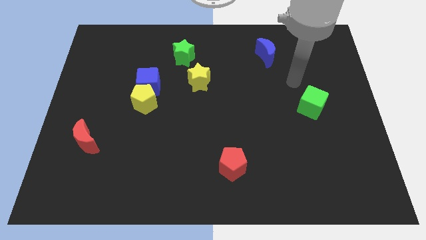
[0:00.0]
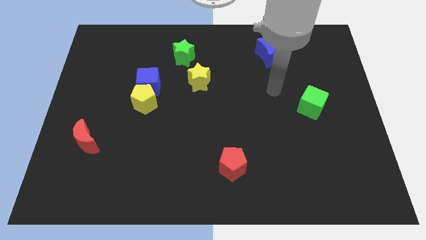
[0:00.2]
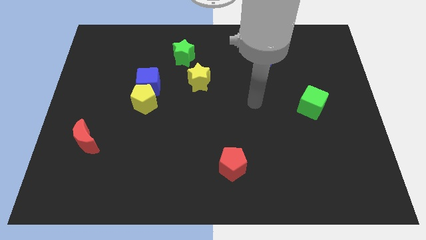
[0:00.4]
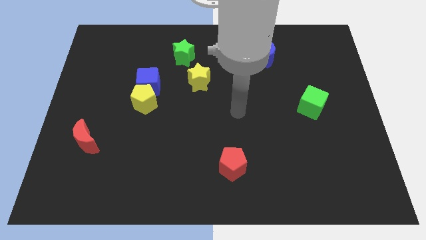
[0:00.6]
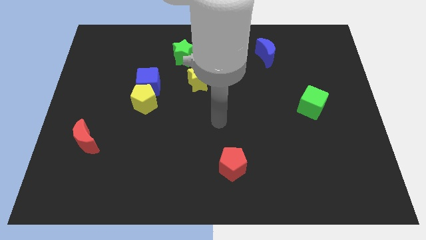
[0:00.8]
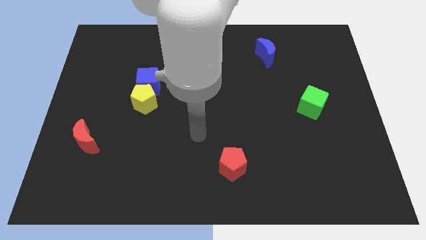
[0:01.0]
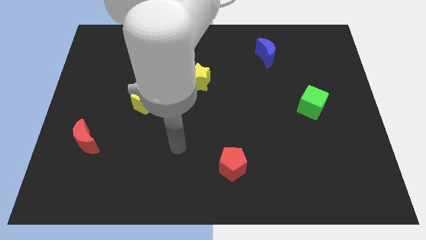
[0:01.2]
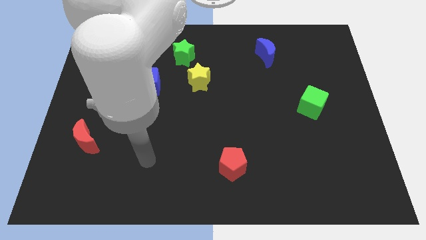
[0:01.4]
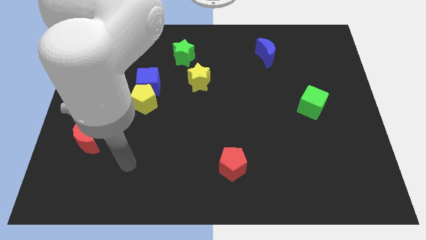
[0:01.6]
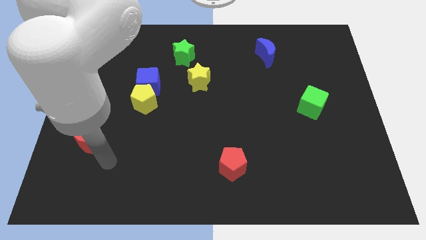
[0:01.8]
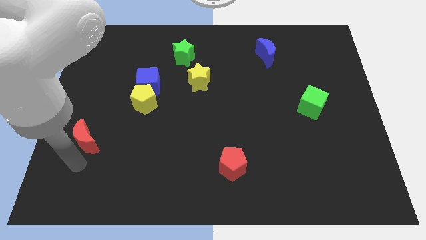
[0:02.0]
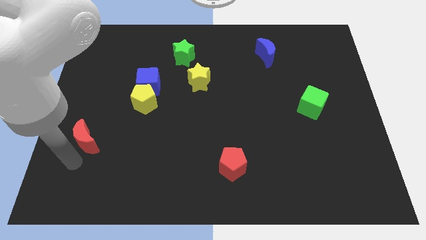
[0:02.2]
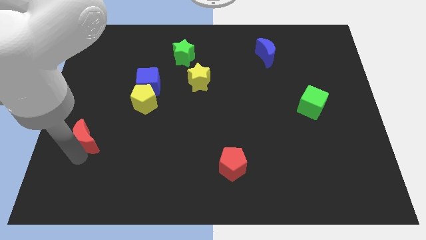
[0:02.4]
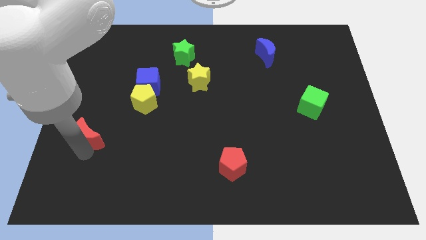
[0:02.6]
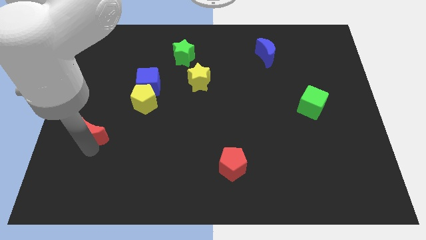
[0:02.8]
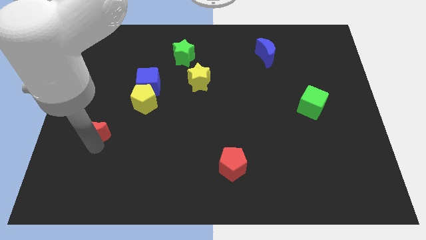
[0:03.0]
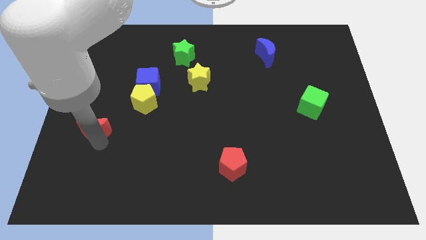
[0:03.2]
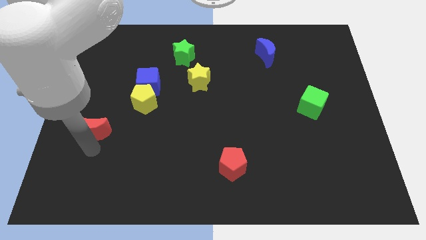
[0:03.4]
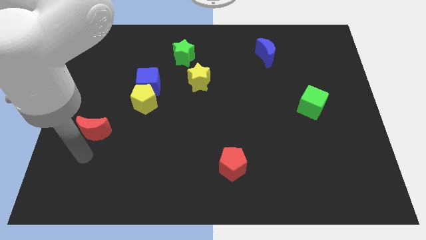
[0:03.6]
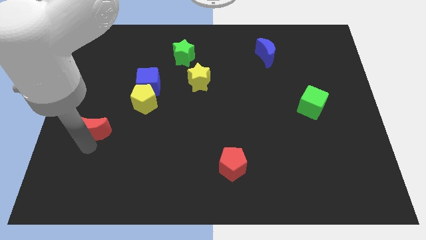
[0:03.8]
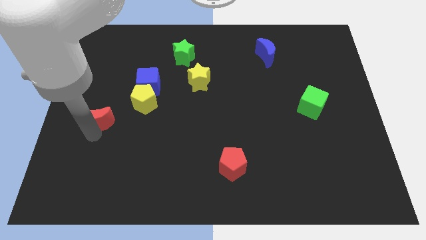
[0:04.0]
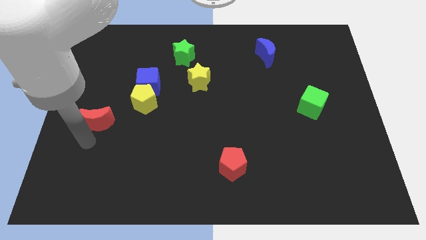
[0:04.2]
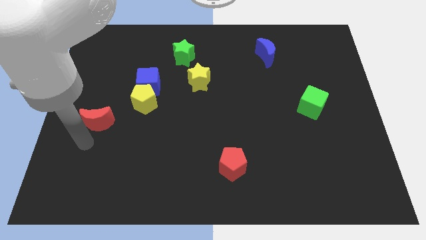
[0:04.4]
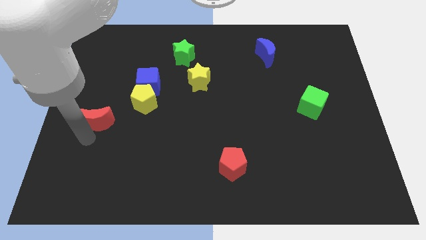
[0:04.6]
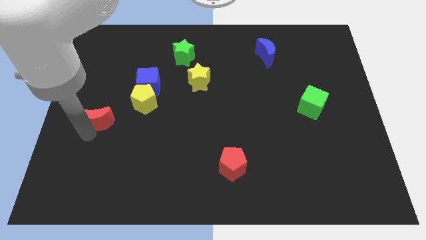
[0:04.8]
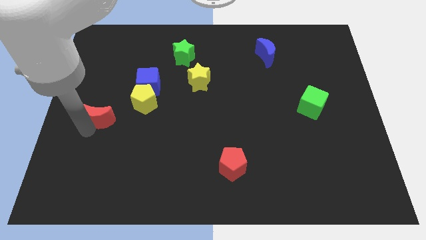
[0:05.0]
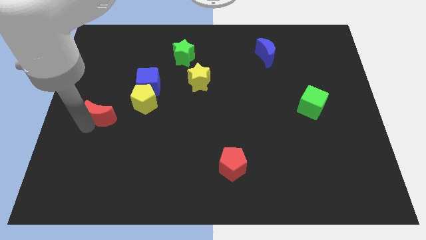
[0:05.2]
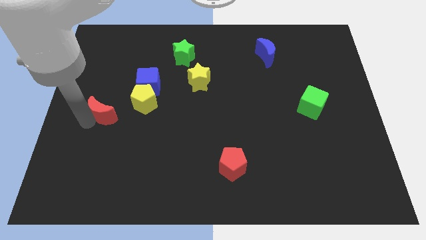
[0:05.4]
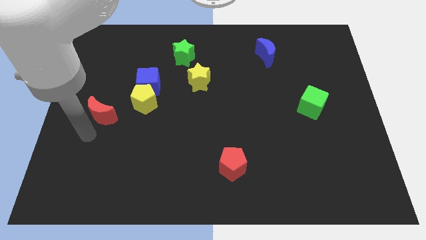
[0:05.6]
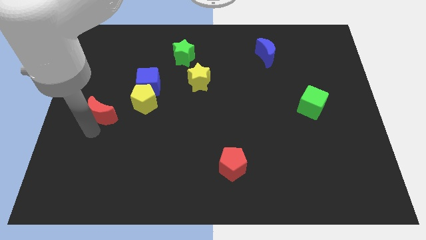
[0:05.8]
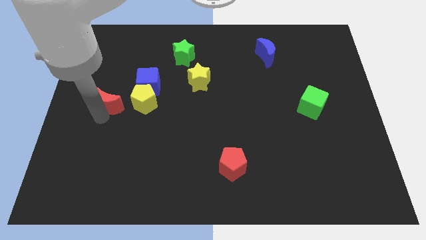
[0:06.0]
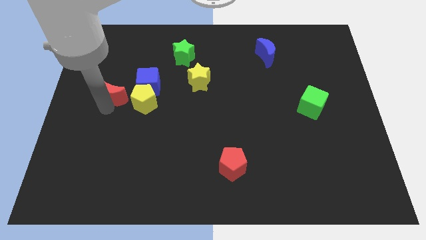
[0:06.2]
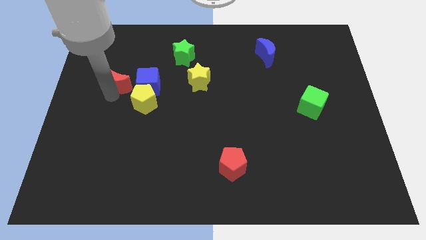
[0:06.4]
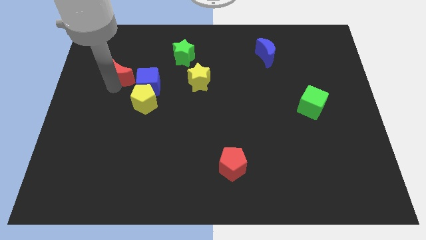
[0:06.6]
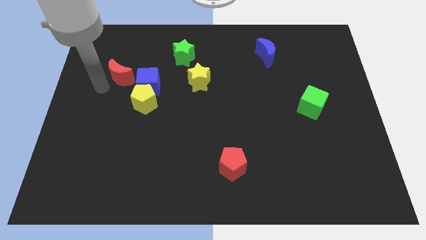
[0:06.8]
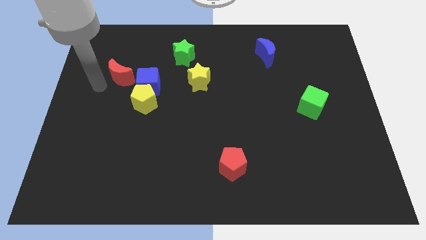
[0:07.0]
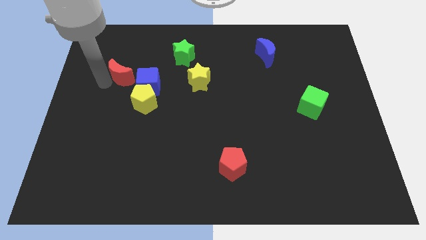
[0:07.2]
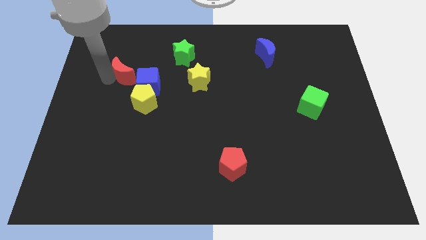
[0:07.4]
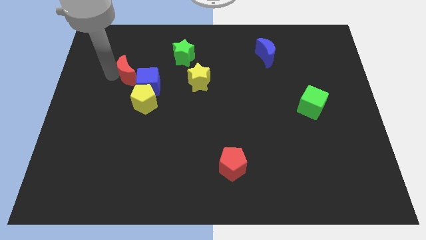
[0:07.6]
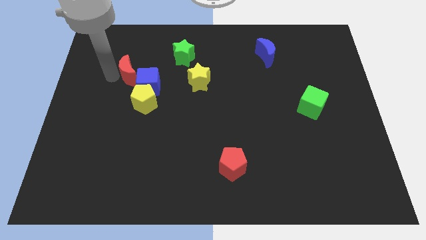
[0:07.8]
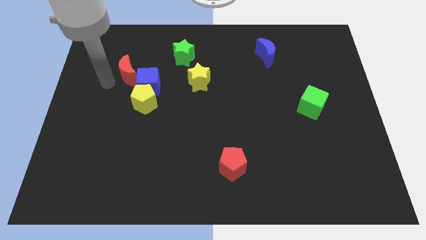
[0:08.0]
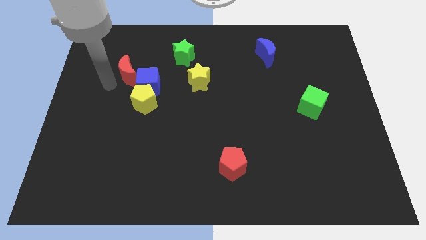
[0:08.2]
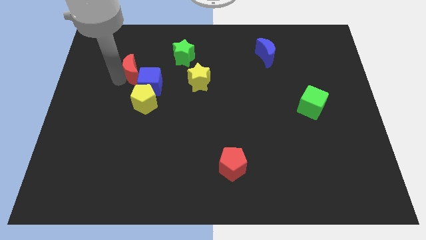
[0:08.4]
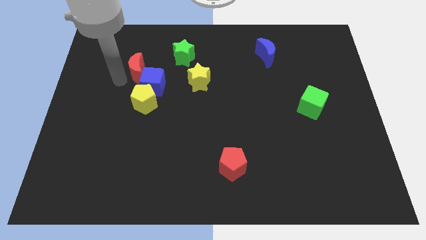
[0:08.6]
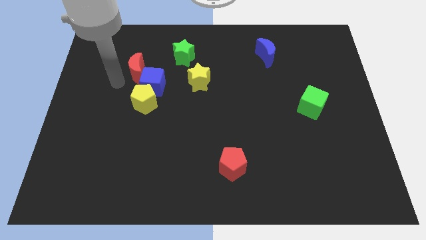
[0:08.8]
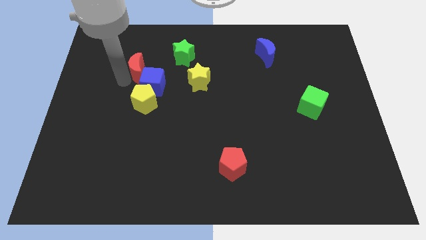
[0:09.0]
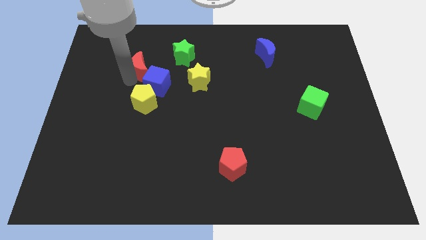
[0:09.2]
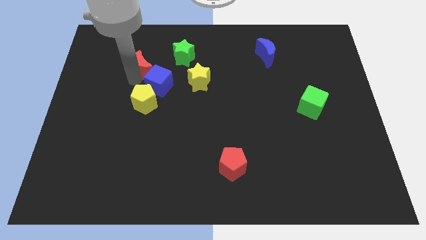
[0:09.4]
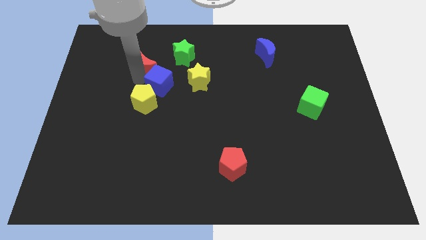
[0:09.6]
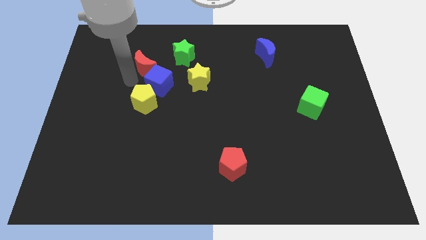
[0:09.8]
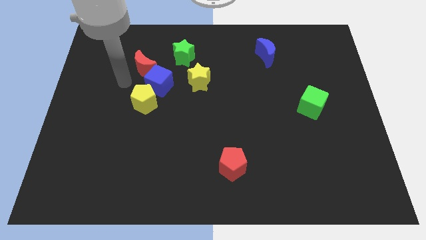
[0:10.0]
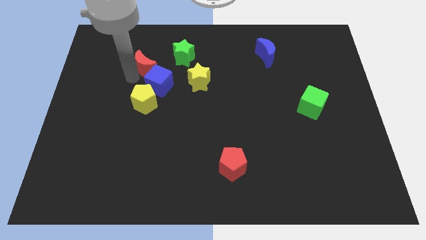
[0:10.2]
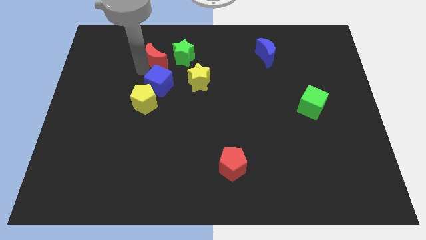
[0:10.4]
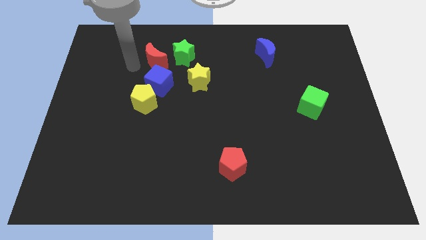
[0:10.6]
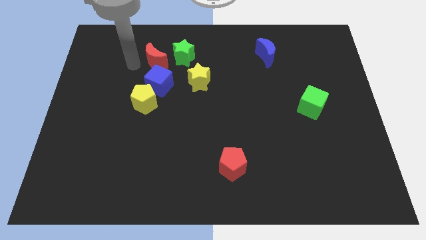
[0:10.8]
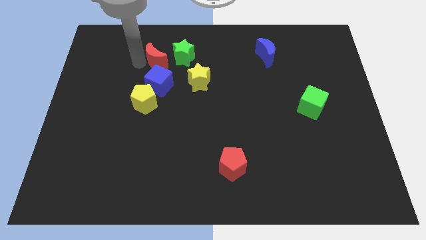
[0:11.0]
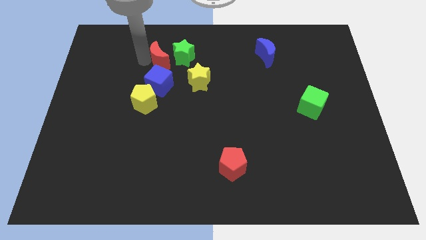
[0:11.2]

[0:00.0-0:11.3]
slide the red moon close to the green star

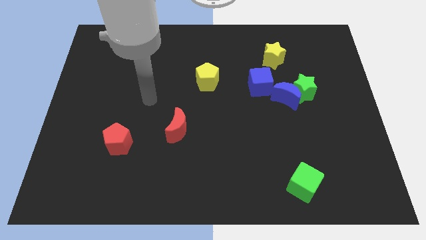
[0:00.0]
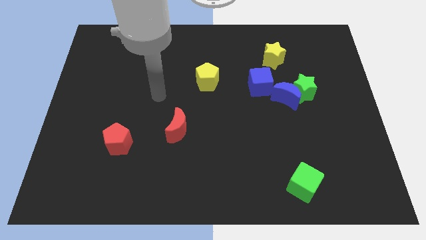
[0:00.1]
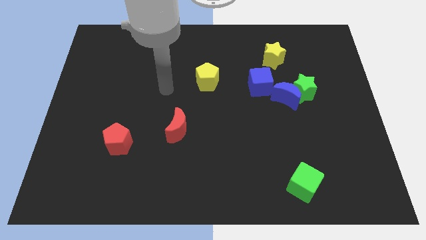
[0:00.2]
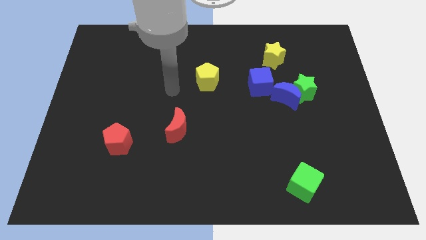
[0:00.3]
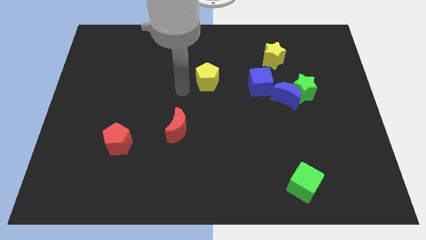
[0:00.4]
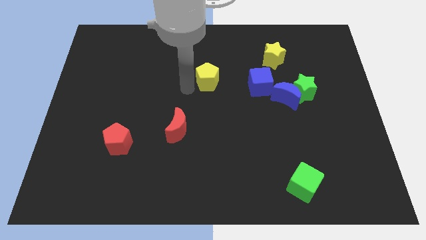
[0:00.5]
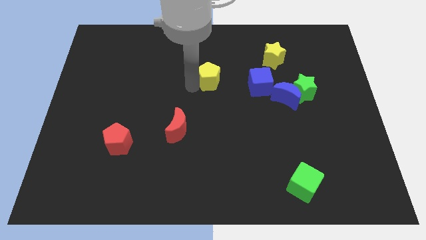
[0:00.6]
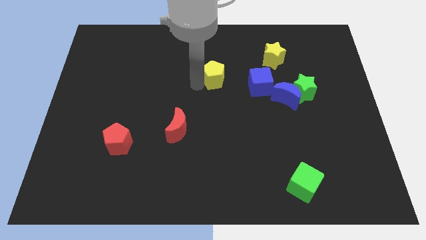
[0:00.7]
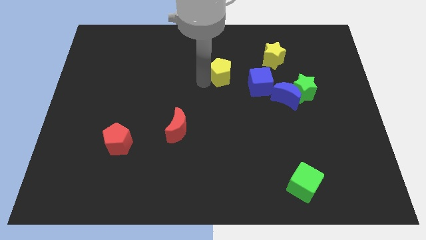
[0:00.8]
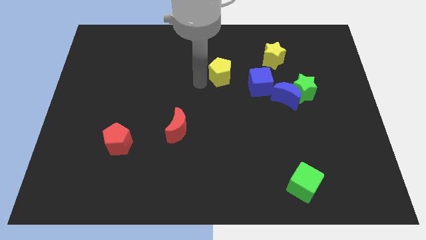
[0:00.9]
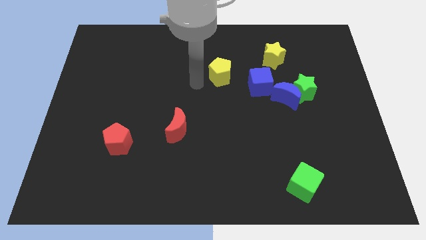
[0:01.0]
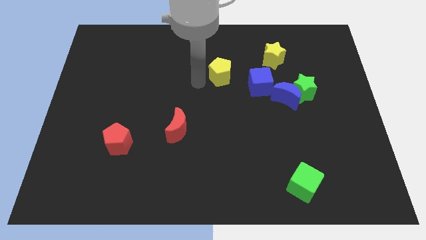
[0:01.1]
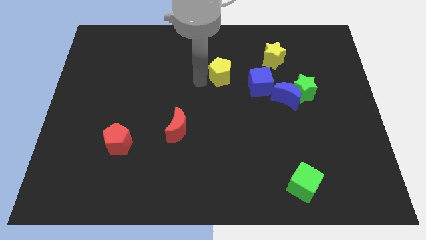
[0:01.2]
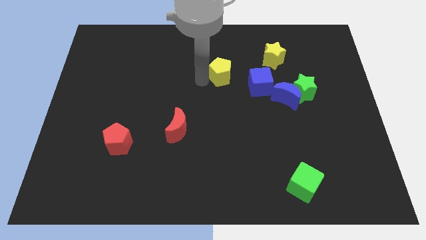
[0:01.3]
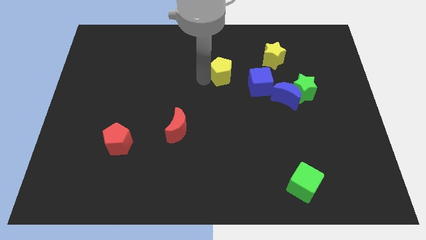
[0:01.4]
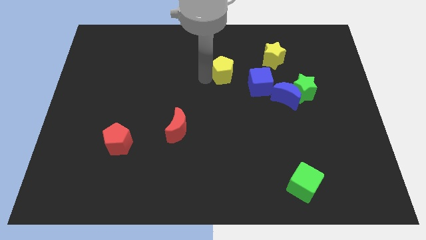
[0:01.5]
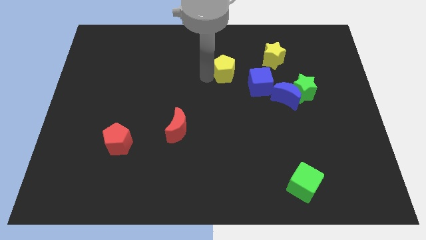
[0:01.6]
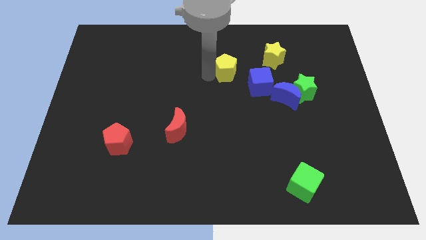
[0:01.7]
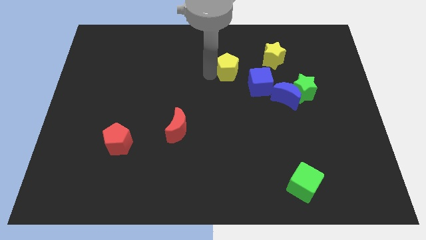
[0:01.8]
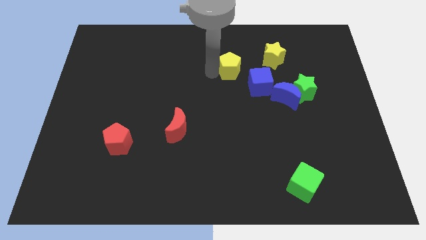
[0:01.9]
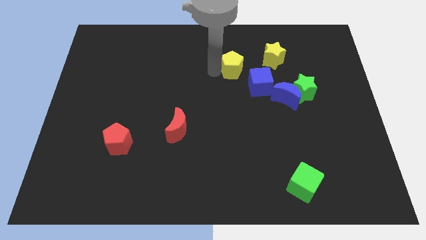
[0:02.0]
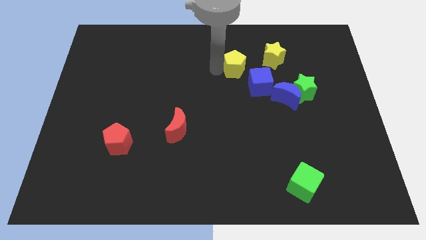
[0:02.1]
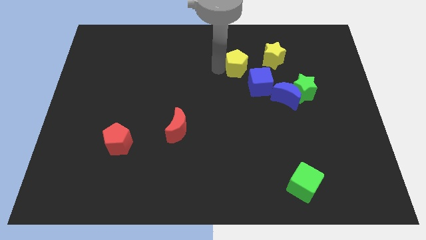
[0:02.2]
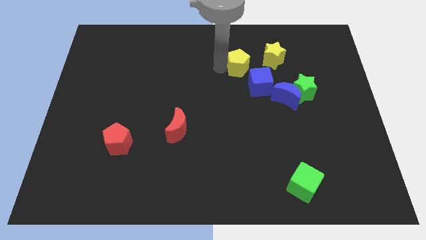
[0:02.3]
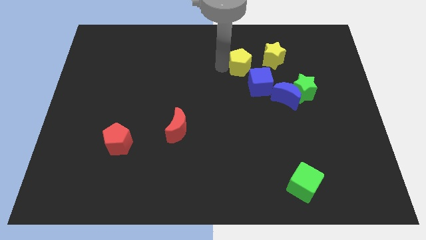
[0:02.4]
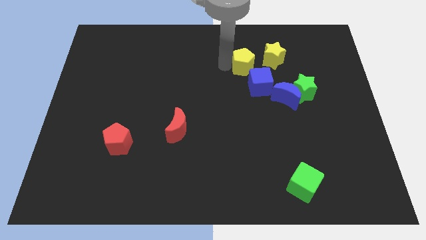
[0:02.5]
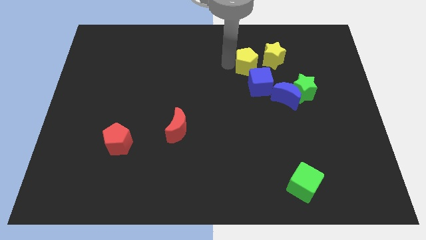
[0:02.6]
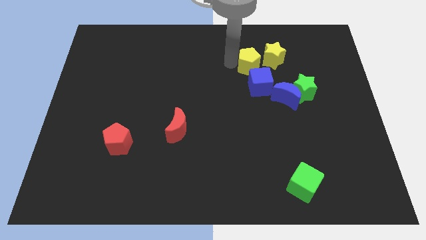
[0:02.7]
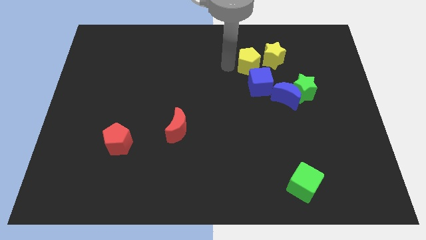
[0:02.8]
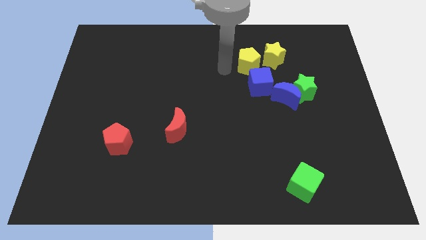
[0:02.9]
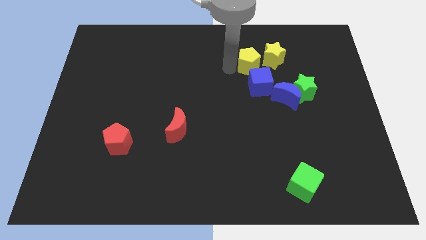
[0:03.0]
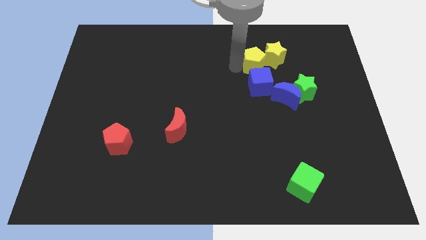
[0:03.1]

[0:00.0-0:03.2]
push the yellow pentagon to the yellow star
